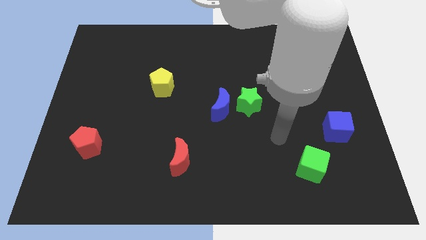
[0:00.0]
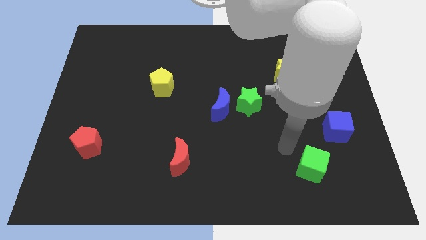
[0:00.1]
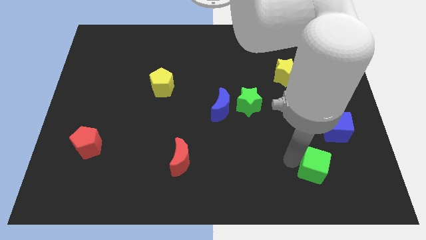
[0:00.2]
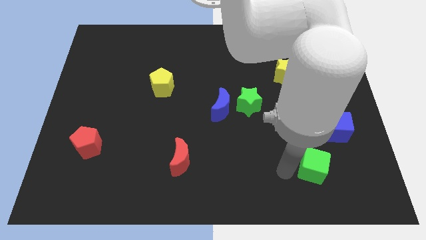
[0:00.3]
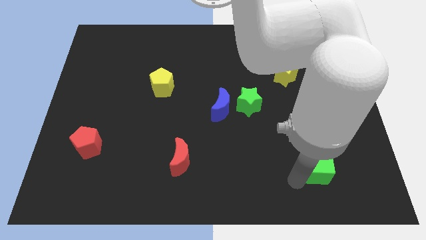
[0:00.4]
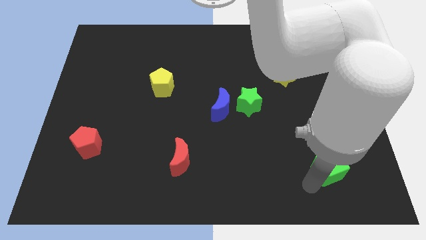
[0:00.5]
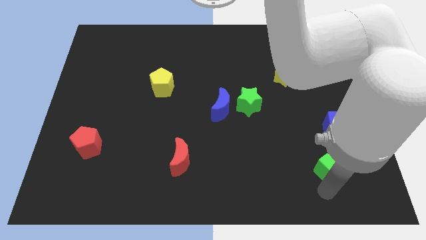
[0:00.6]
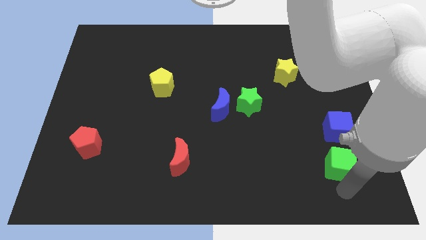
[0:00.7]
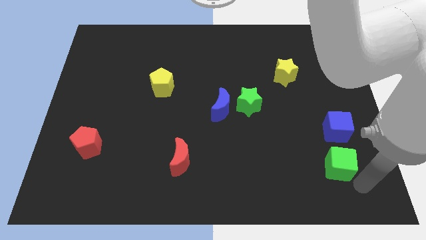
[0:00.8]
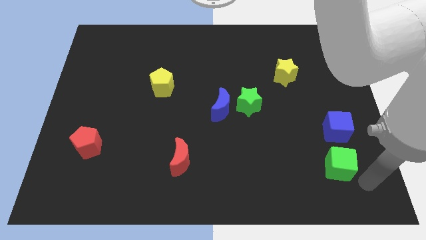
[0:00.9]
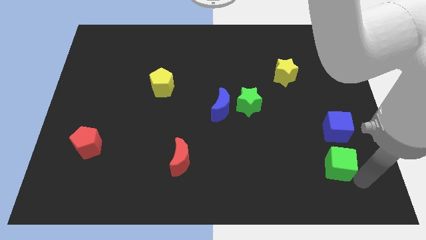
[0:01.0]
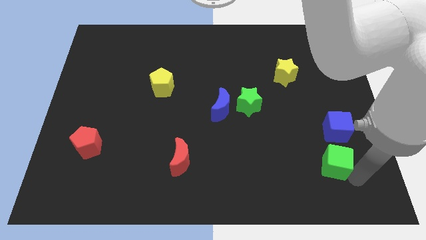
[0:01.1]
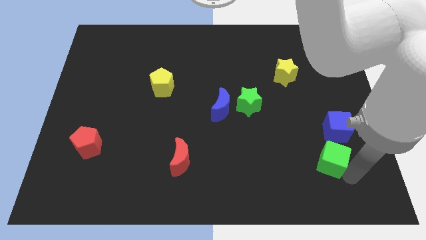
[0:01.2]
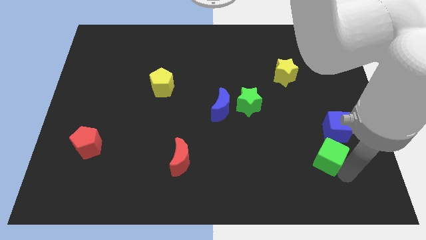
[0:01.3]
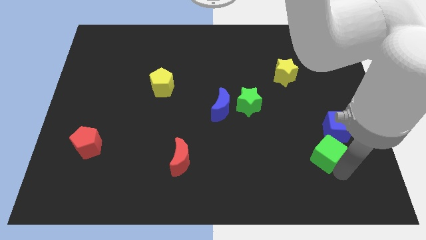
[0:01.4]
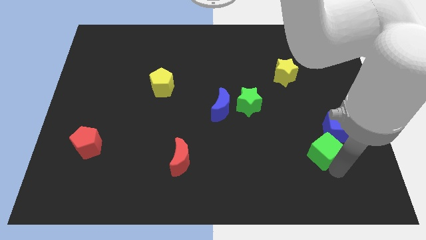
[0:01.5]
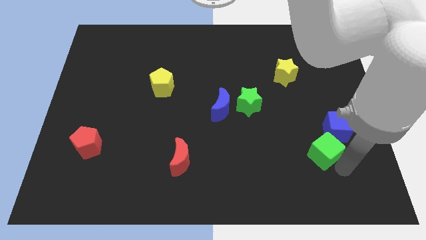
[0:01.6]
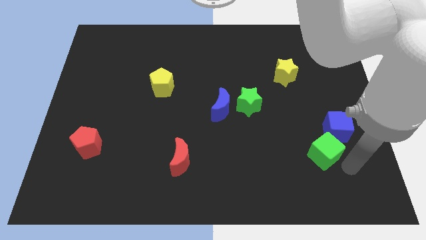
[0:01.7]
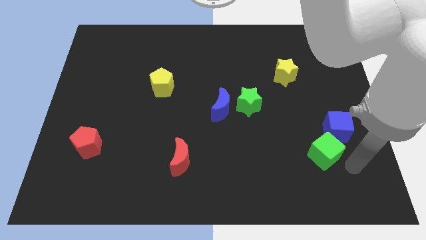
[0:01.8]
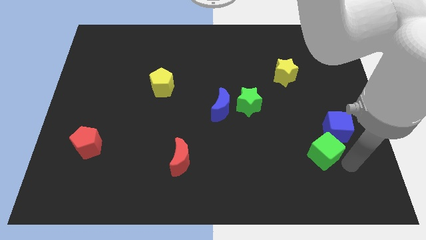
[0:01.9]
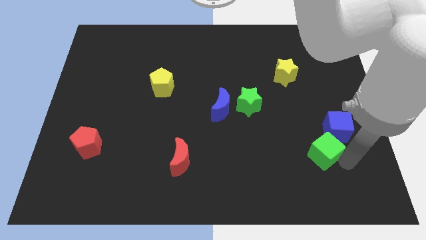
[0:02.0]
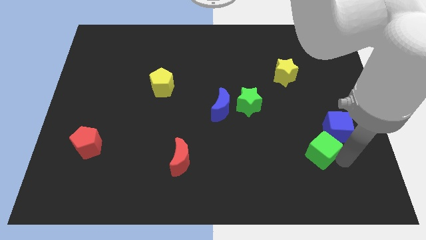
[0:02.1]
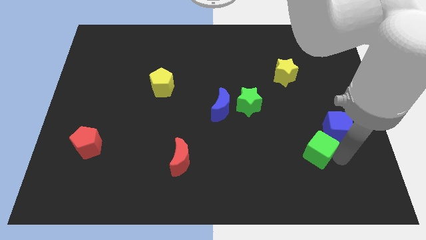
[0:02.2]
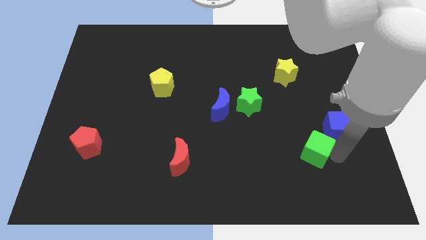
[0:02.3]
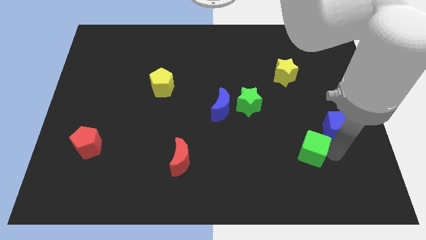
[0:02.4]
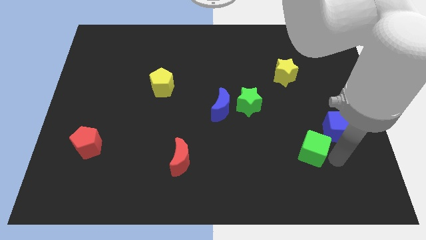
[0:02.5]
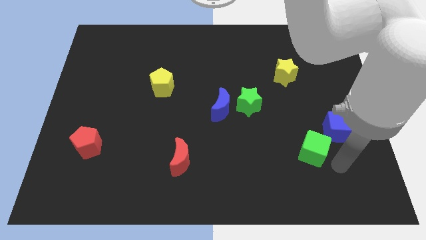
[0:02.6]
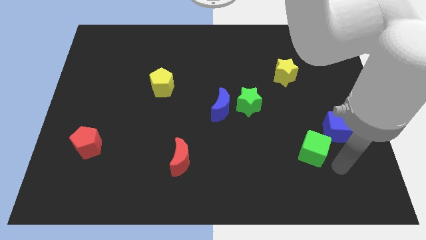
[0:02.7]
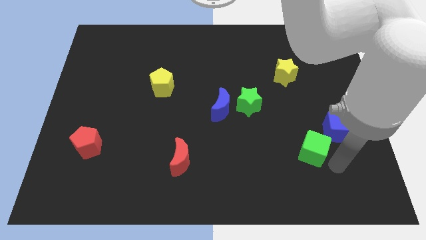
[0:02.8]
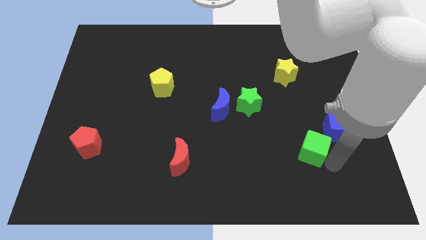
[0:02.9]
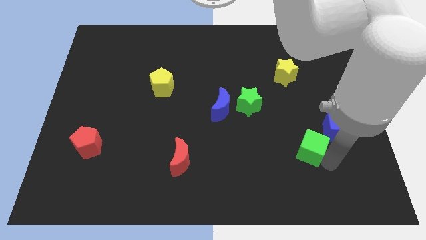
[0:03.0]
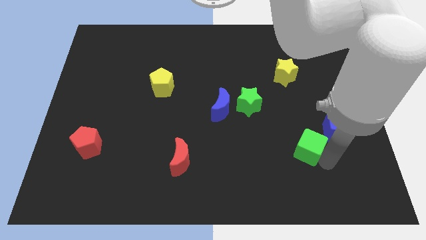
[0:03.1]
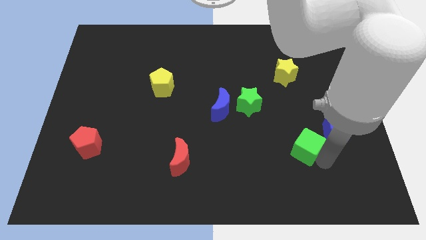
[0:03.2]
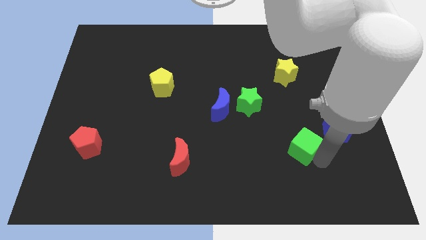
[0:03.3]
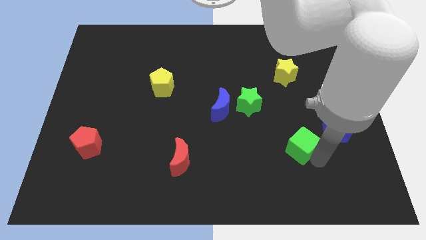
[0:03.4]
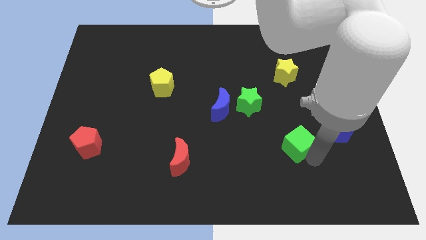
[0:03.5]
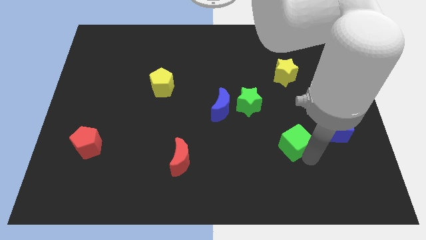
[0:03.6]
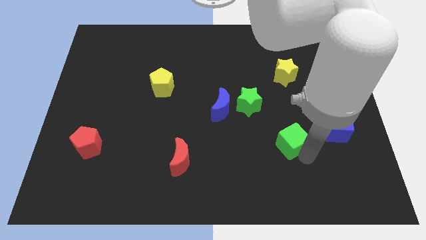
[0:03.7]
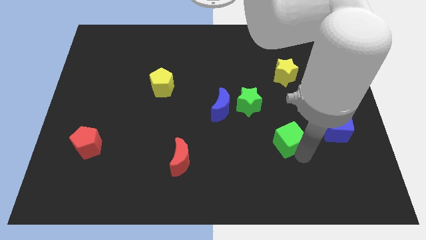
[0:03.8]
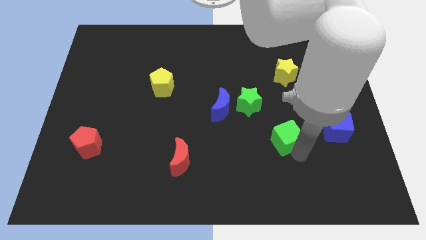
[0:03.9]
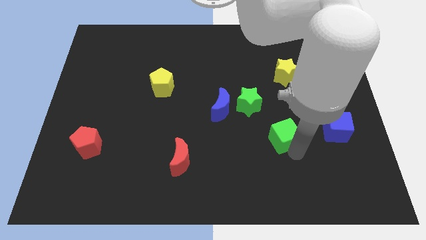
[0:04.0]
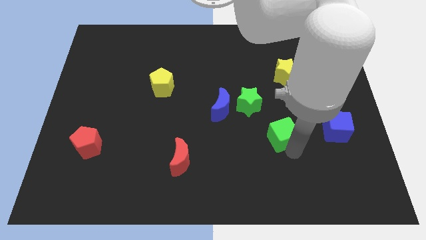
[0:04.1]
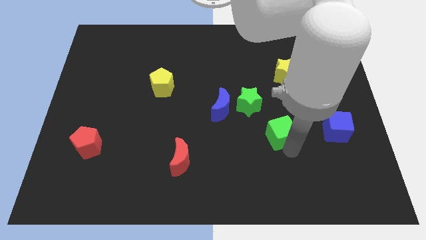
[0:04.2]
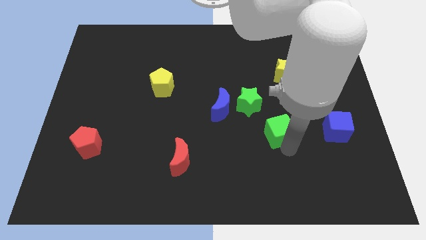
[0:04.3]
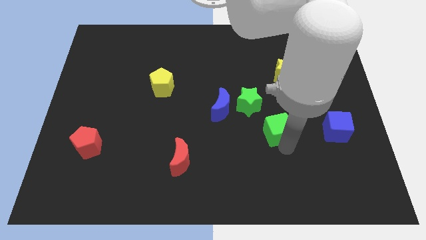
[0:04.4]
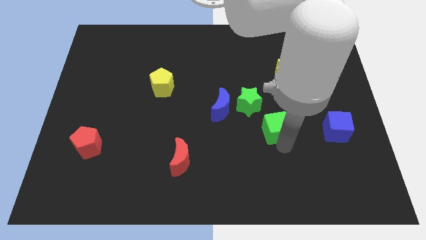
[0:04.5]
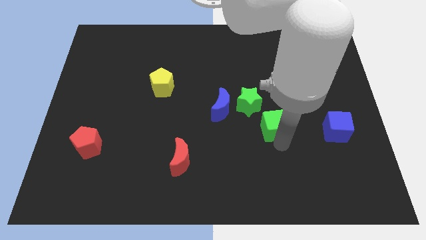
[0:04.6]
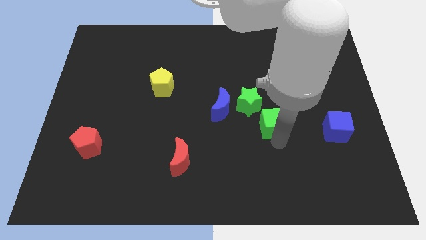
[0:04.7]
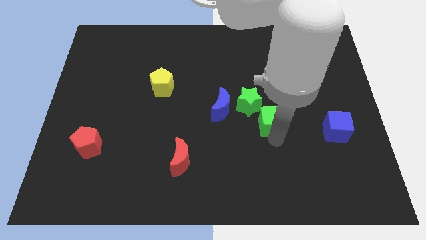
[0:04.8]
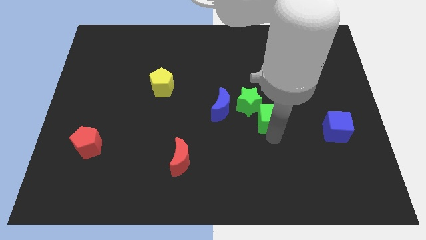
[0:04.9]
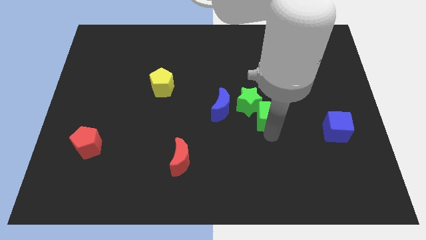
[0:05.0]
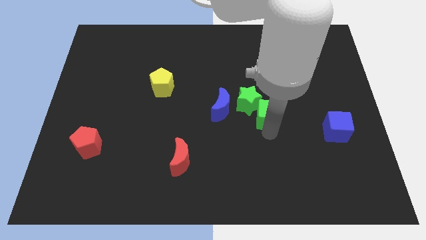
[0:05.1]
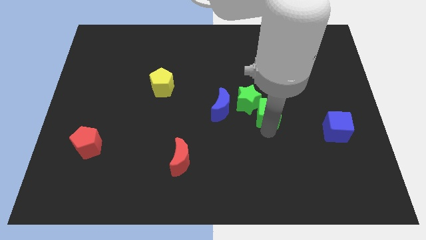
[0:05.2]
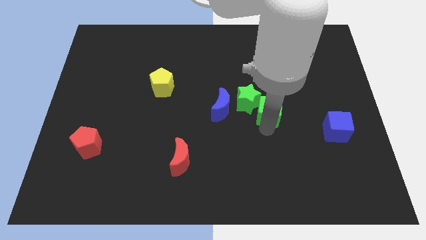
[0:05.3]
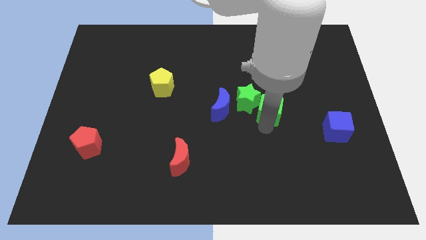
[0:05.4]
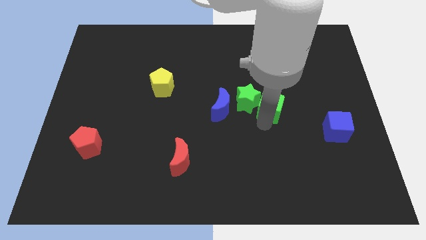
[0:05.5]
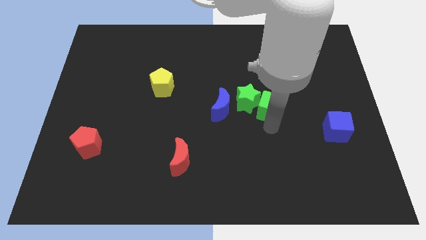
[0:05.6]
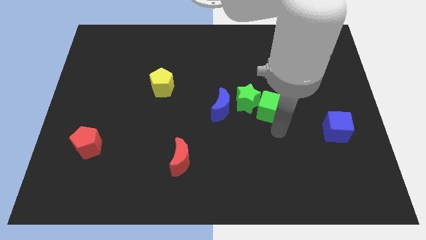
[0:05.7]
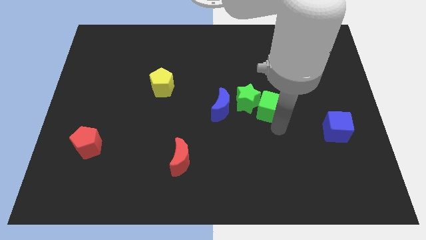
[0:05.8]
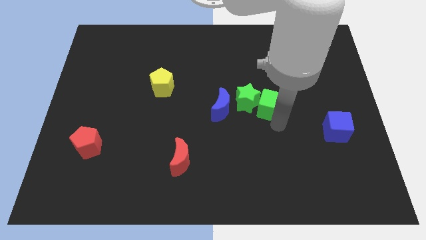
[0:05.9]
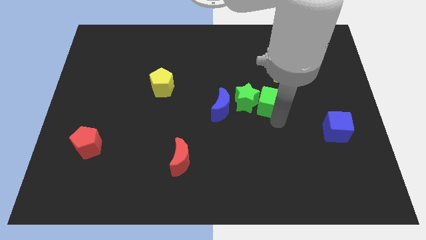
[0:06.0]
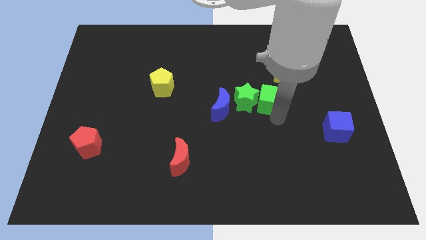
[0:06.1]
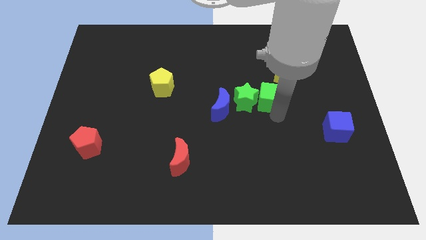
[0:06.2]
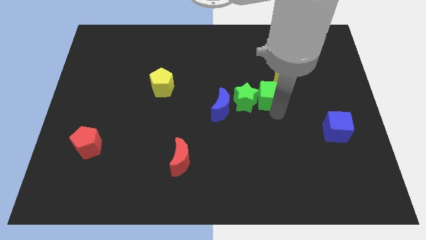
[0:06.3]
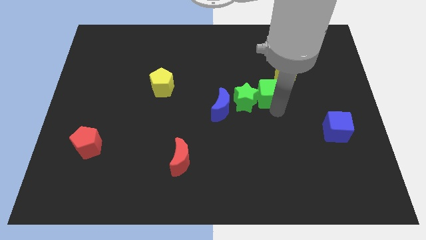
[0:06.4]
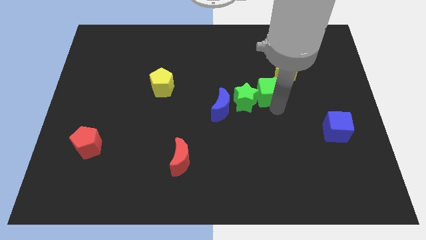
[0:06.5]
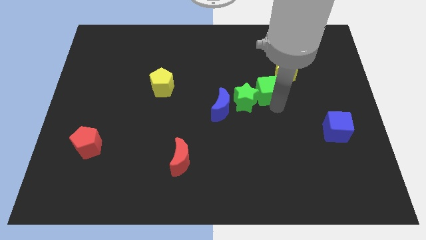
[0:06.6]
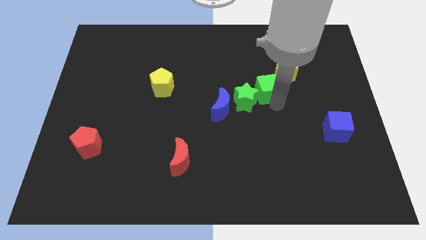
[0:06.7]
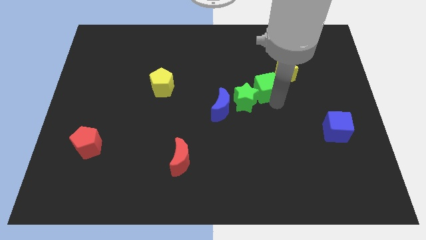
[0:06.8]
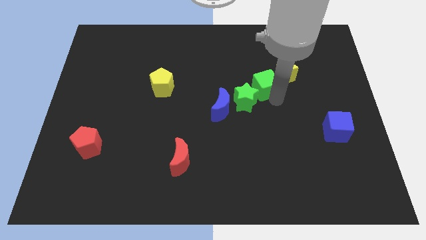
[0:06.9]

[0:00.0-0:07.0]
move the green cube to the top of the green star

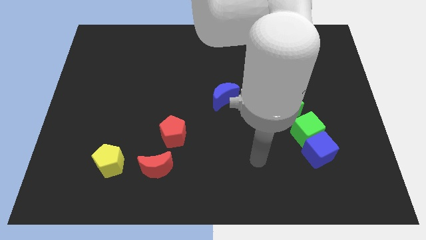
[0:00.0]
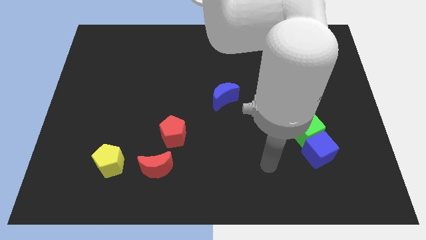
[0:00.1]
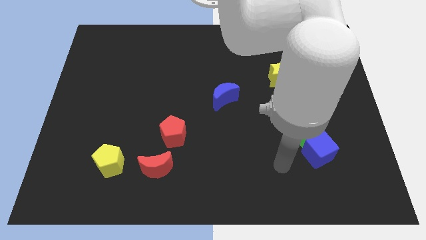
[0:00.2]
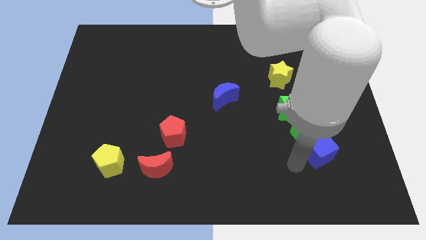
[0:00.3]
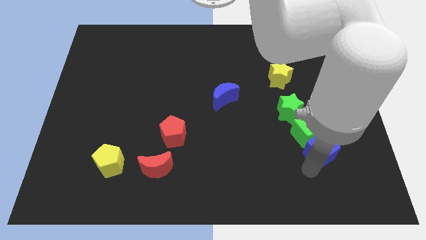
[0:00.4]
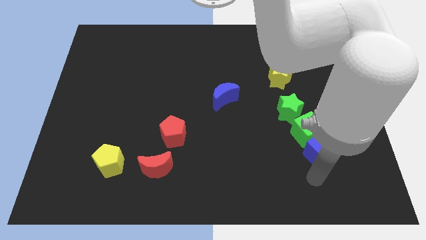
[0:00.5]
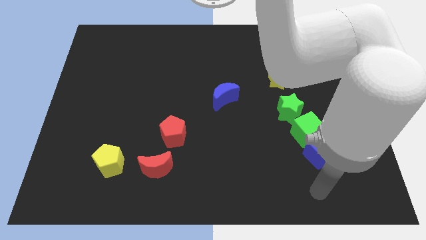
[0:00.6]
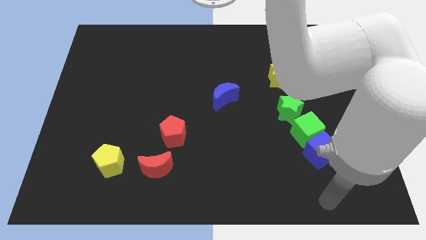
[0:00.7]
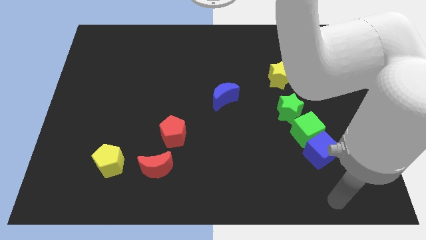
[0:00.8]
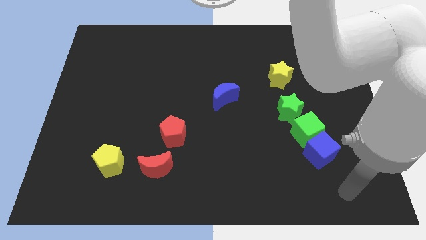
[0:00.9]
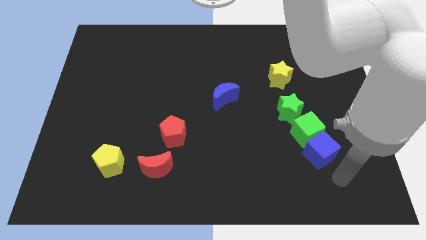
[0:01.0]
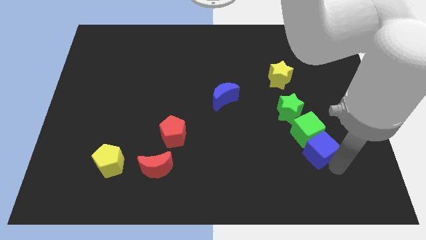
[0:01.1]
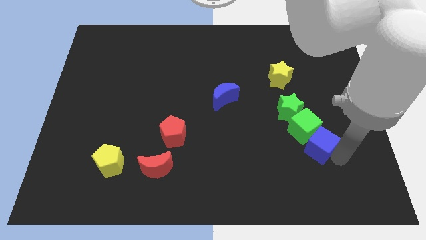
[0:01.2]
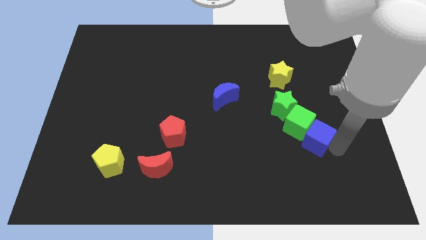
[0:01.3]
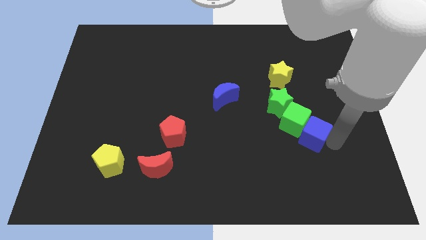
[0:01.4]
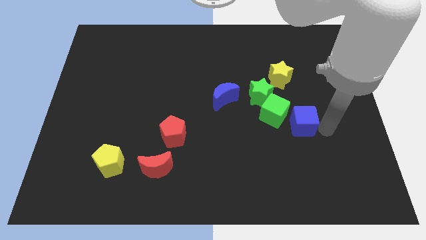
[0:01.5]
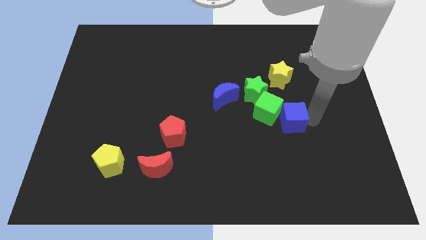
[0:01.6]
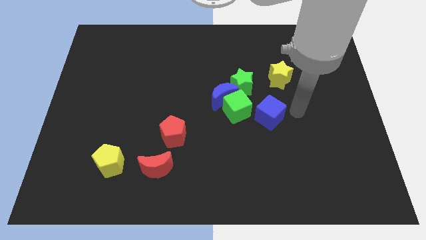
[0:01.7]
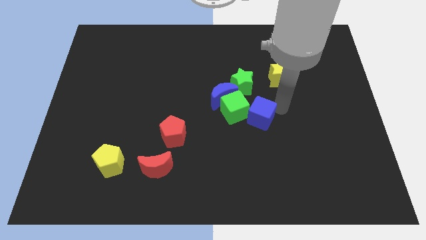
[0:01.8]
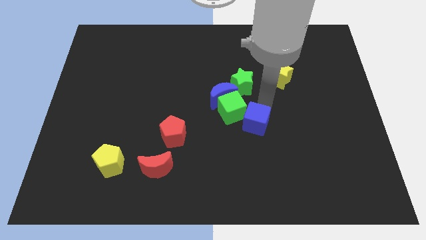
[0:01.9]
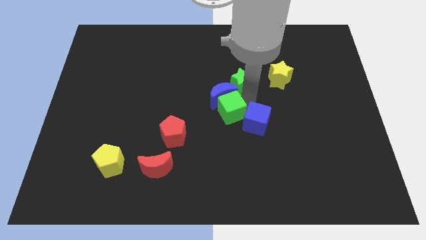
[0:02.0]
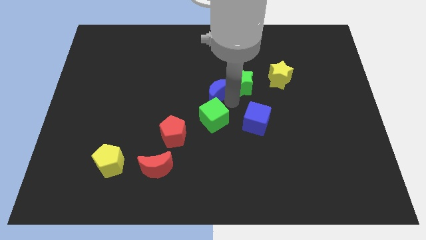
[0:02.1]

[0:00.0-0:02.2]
push the green cube to the right of the red pentagon
